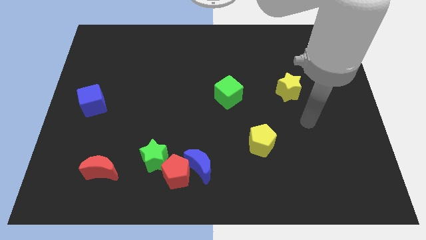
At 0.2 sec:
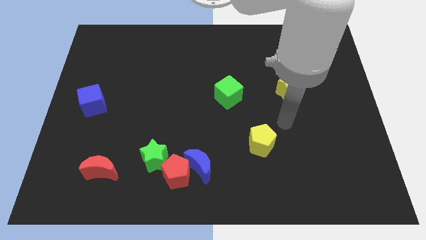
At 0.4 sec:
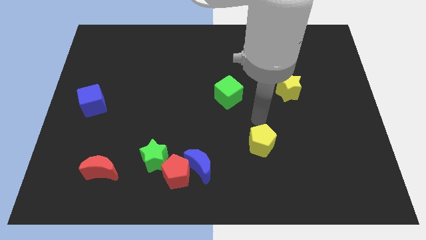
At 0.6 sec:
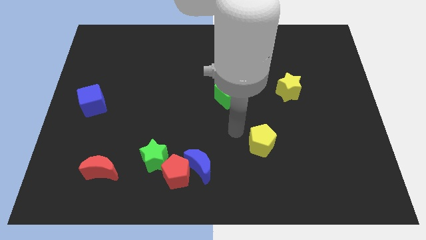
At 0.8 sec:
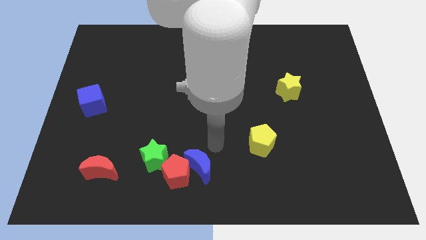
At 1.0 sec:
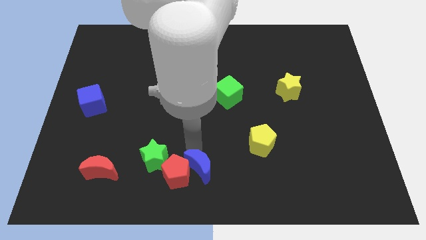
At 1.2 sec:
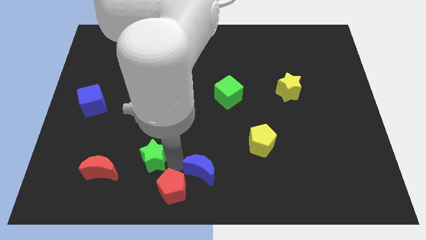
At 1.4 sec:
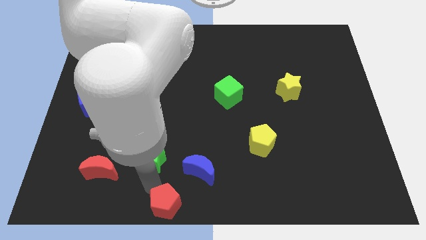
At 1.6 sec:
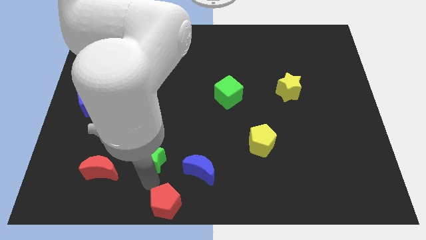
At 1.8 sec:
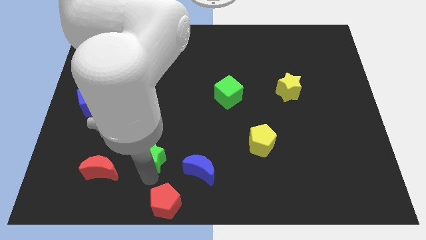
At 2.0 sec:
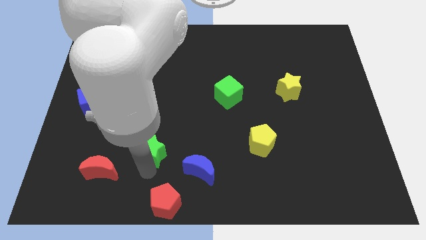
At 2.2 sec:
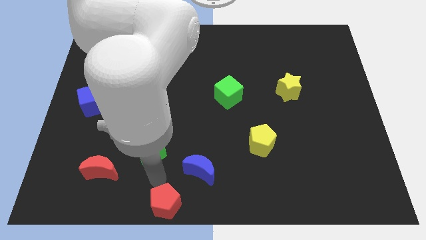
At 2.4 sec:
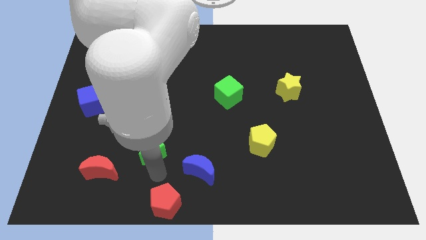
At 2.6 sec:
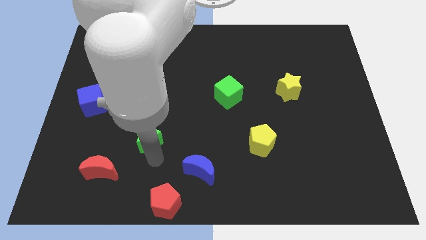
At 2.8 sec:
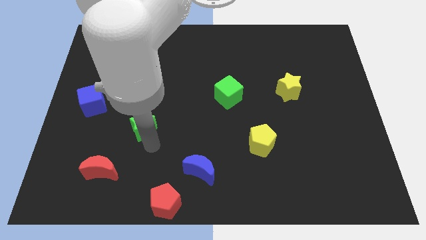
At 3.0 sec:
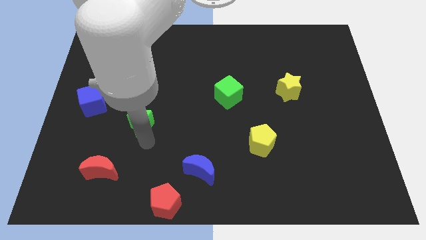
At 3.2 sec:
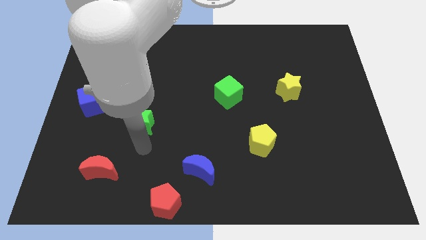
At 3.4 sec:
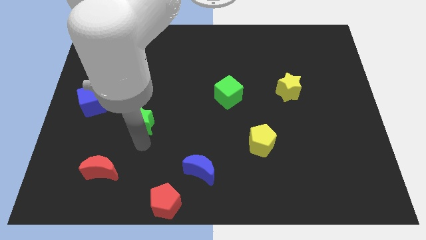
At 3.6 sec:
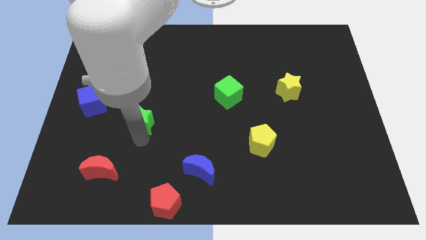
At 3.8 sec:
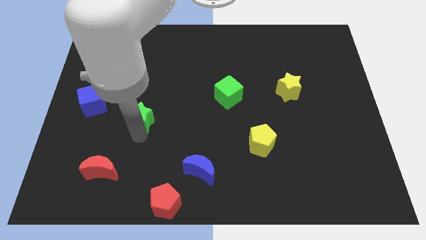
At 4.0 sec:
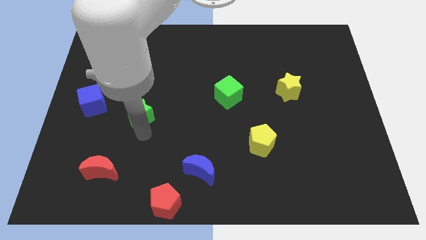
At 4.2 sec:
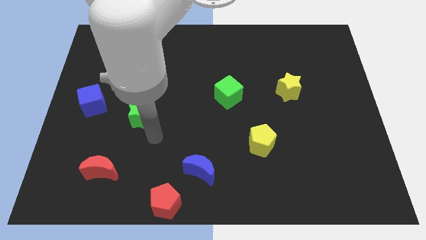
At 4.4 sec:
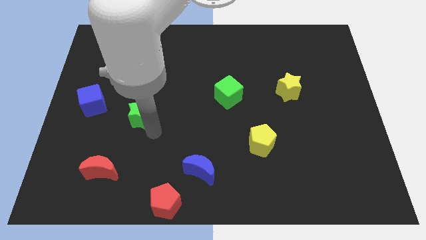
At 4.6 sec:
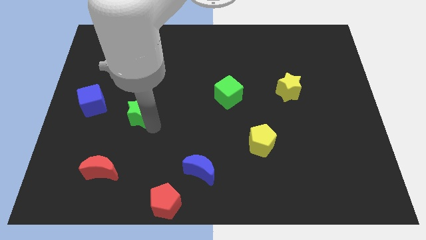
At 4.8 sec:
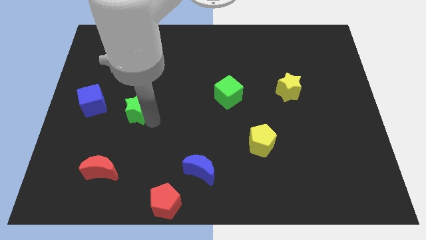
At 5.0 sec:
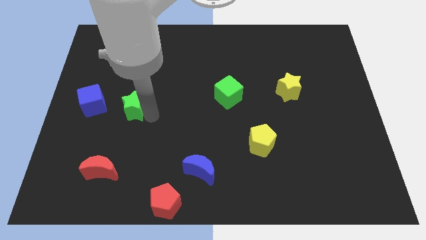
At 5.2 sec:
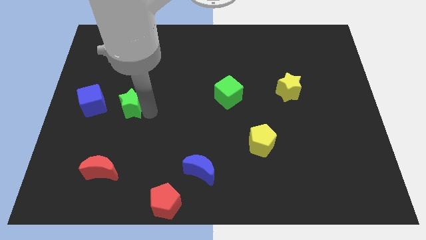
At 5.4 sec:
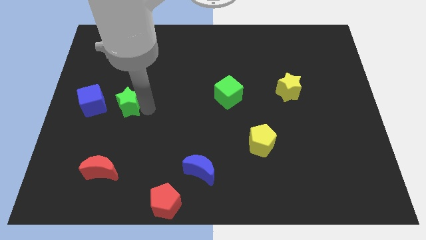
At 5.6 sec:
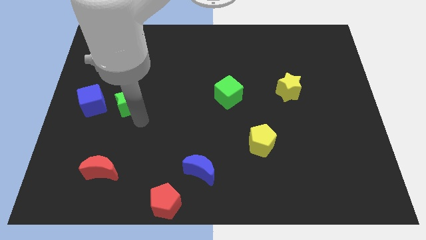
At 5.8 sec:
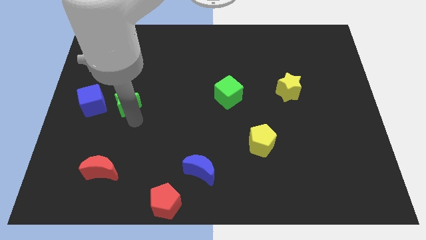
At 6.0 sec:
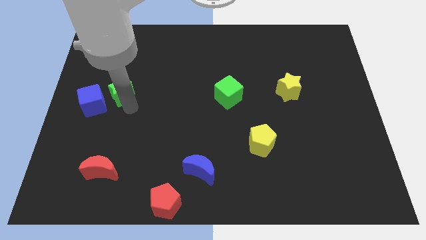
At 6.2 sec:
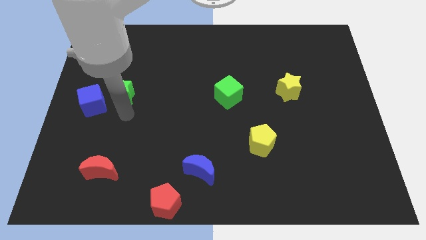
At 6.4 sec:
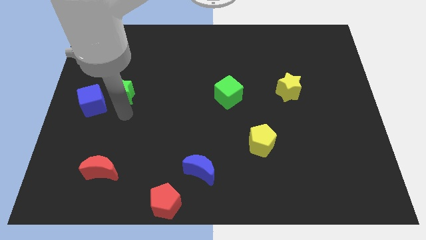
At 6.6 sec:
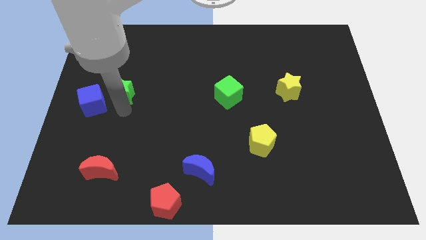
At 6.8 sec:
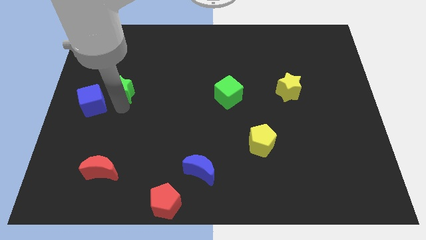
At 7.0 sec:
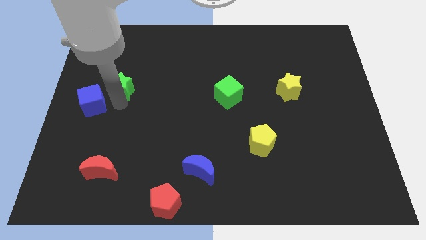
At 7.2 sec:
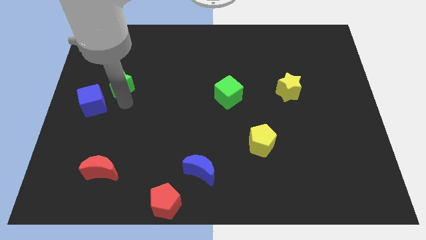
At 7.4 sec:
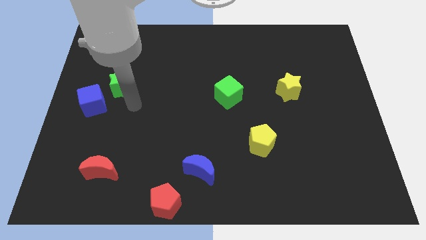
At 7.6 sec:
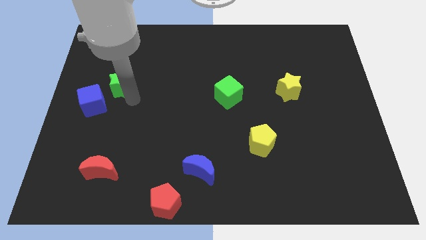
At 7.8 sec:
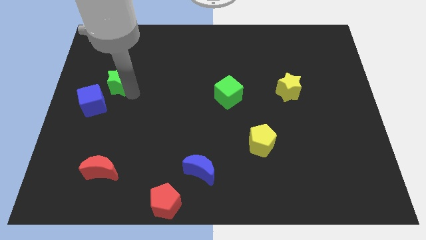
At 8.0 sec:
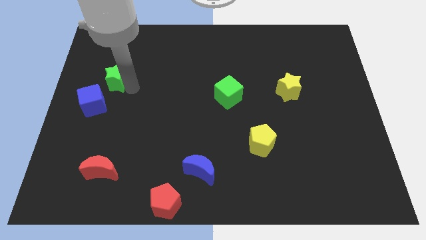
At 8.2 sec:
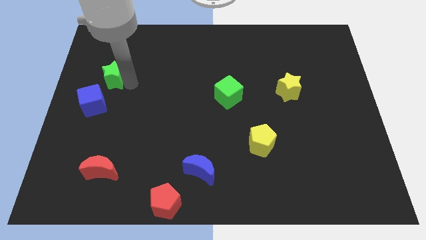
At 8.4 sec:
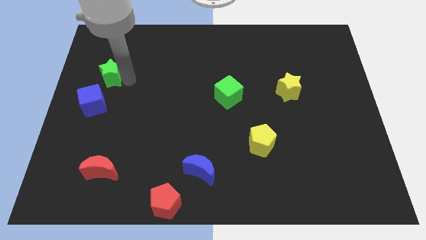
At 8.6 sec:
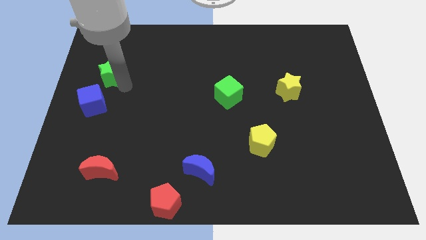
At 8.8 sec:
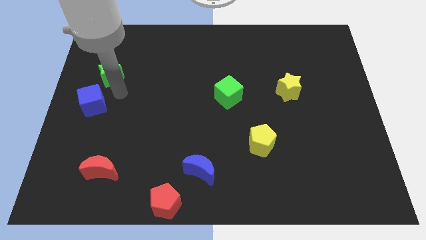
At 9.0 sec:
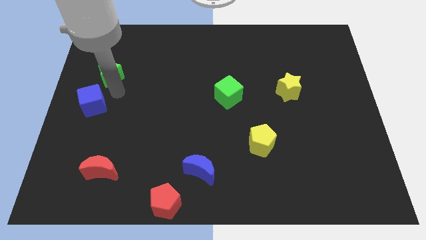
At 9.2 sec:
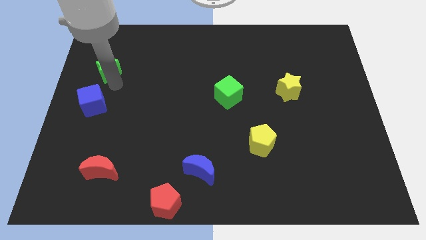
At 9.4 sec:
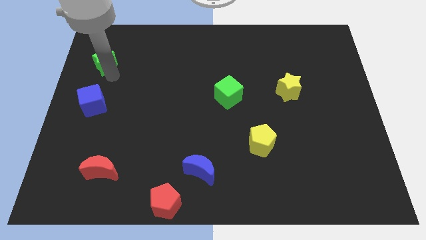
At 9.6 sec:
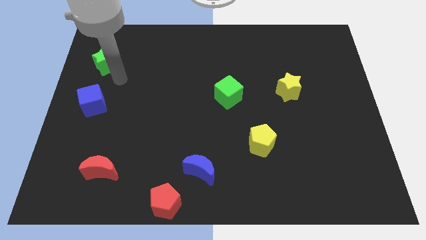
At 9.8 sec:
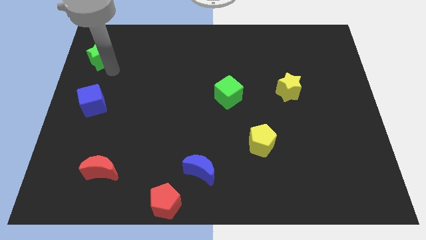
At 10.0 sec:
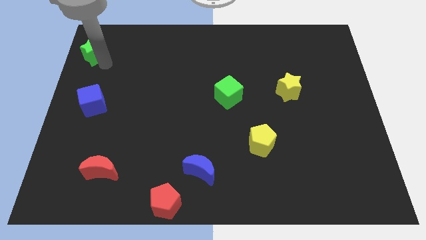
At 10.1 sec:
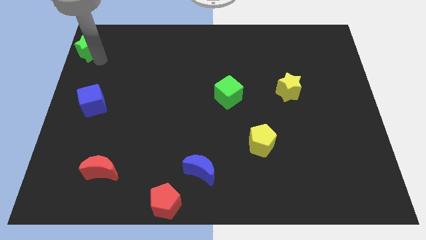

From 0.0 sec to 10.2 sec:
put the green star to the upper left corner

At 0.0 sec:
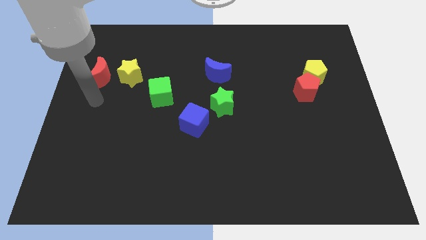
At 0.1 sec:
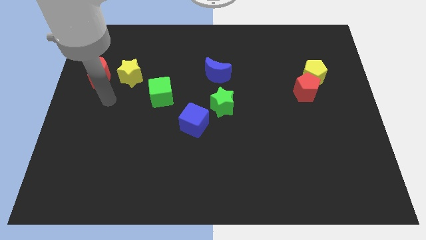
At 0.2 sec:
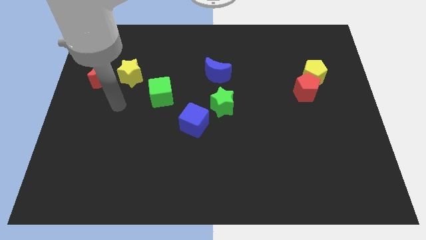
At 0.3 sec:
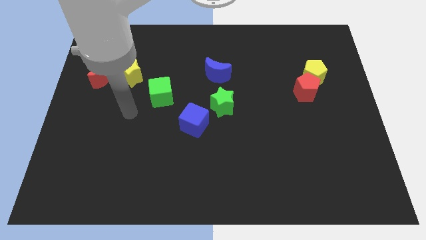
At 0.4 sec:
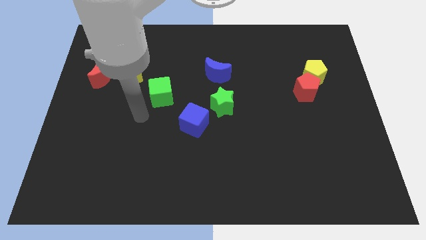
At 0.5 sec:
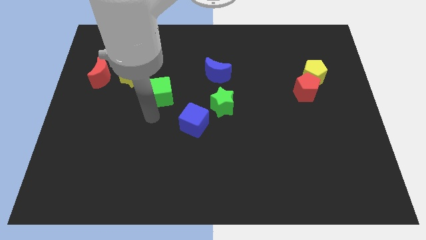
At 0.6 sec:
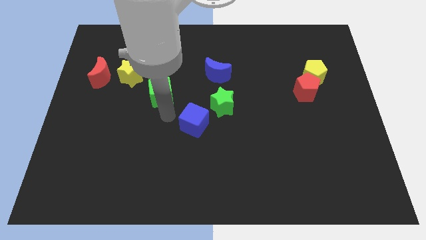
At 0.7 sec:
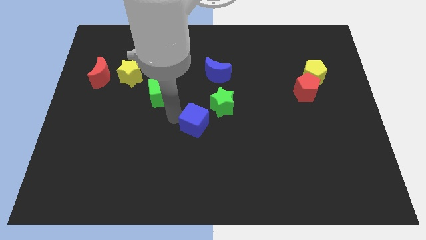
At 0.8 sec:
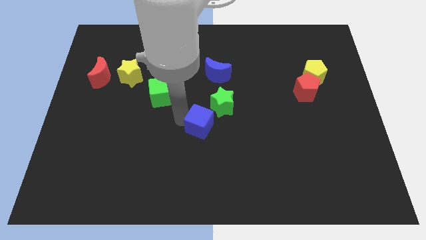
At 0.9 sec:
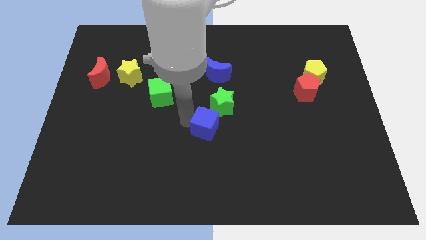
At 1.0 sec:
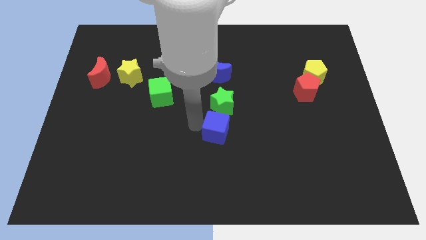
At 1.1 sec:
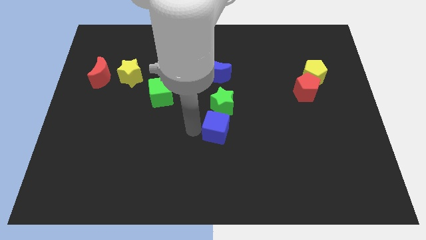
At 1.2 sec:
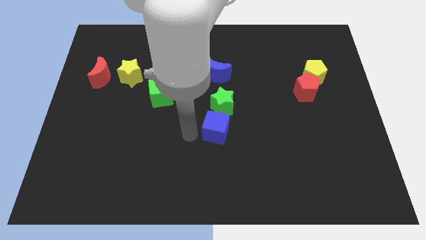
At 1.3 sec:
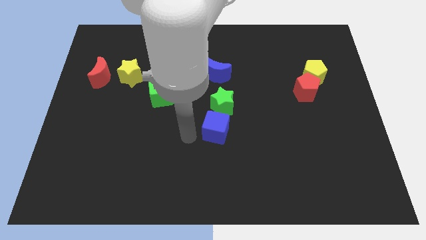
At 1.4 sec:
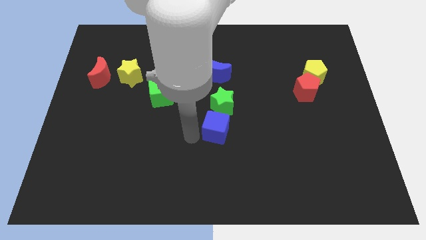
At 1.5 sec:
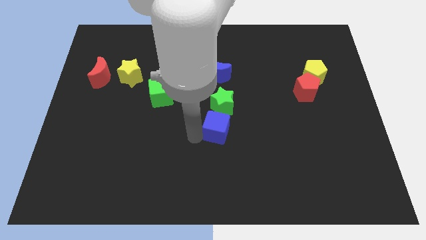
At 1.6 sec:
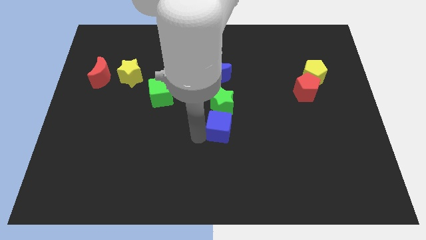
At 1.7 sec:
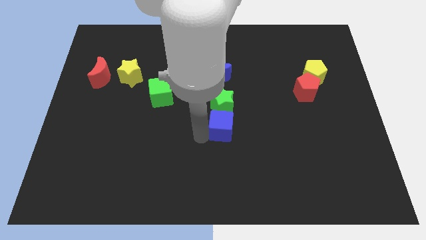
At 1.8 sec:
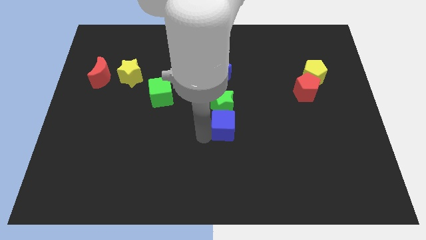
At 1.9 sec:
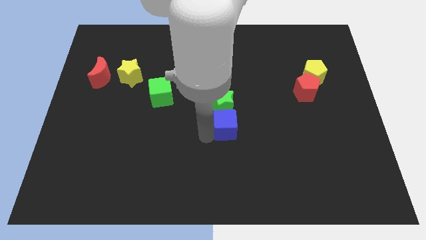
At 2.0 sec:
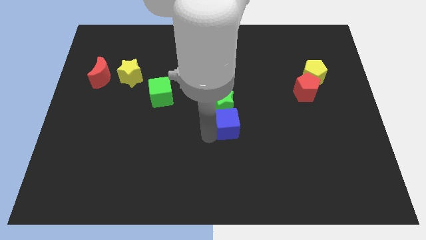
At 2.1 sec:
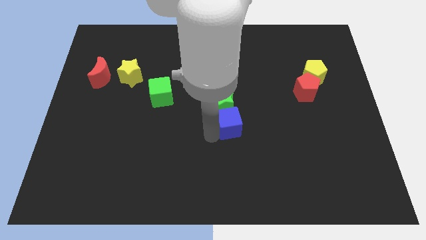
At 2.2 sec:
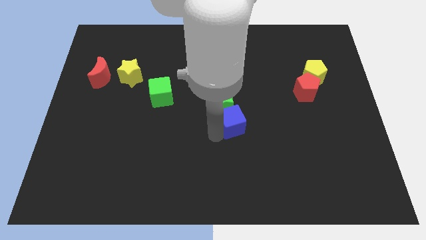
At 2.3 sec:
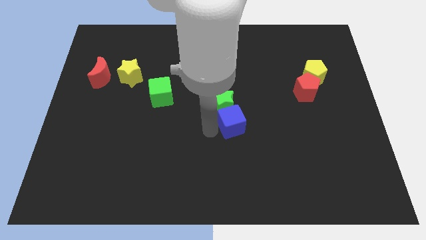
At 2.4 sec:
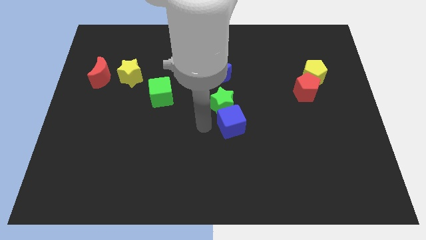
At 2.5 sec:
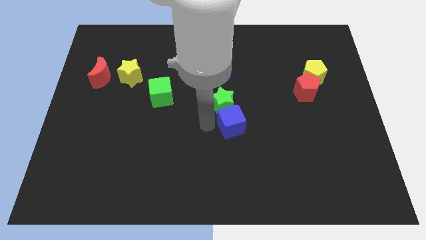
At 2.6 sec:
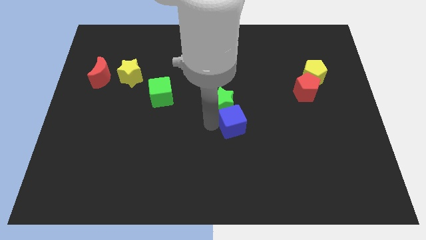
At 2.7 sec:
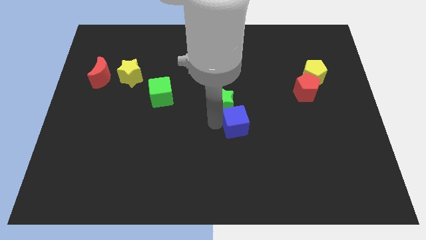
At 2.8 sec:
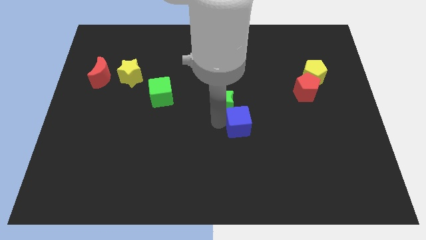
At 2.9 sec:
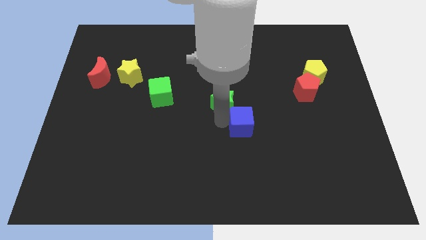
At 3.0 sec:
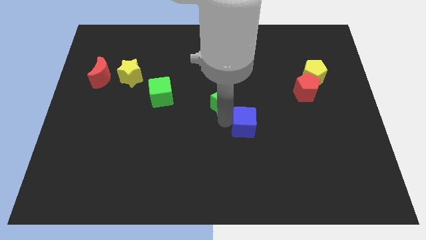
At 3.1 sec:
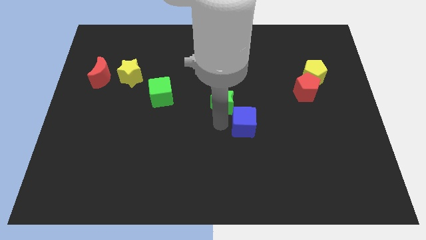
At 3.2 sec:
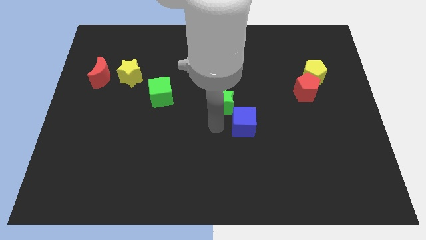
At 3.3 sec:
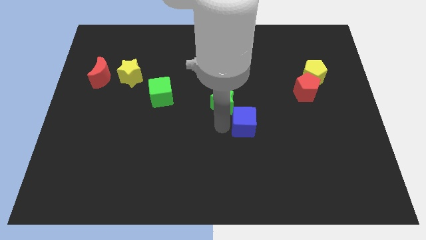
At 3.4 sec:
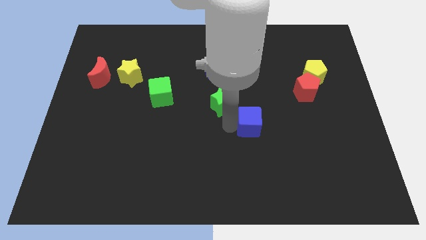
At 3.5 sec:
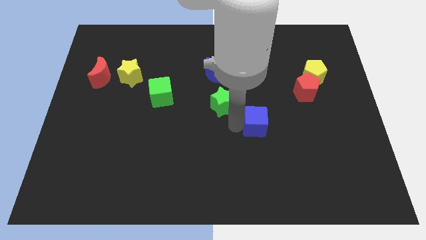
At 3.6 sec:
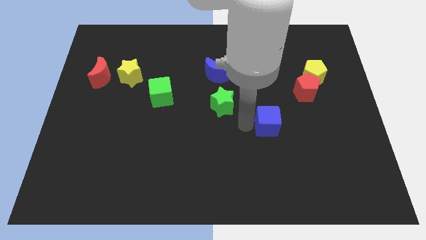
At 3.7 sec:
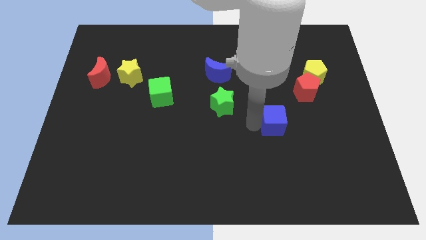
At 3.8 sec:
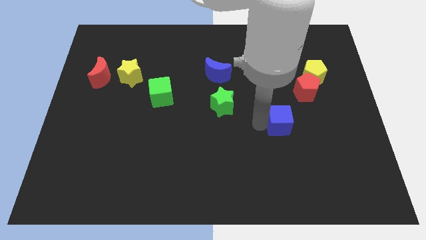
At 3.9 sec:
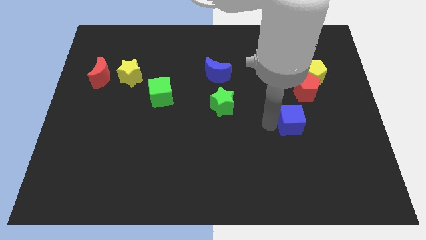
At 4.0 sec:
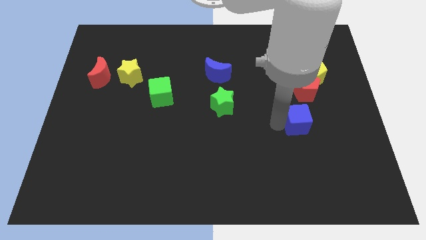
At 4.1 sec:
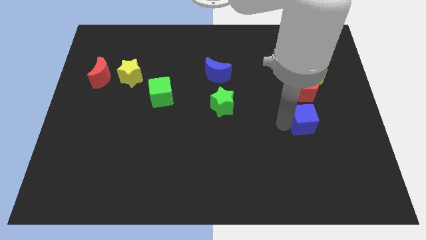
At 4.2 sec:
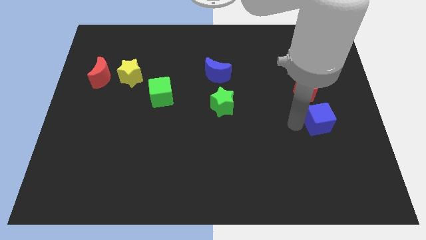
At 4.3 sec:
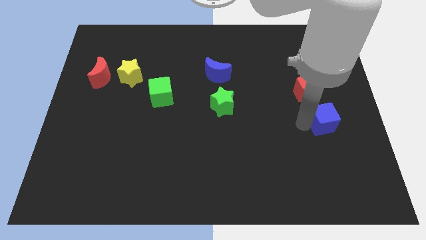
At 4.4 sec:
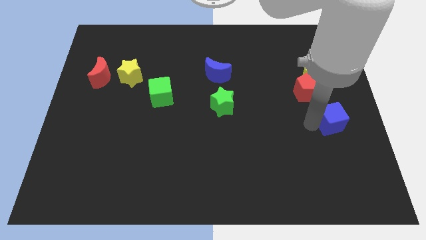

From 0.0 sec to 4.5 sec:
slide the blue cube to the center right
